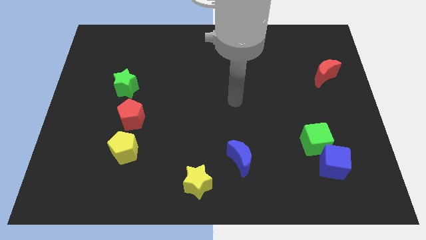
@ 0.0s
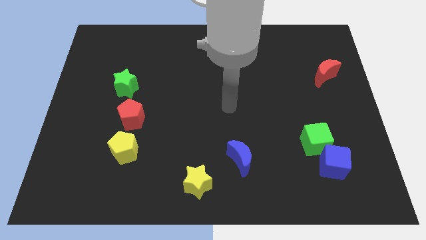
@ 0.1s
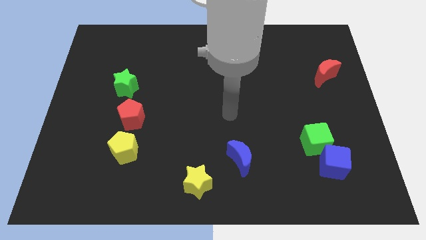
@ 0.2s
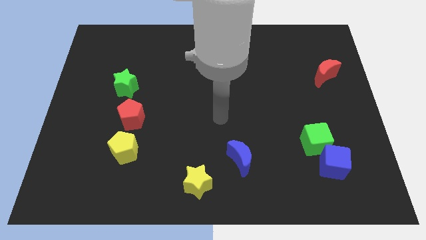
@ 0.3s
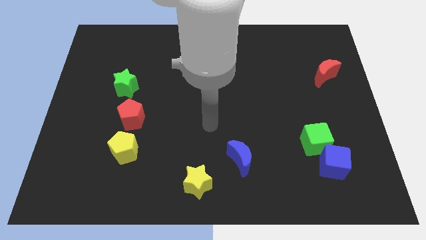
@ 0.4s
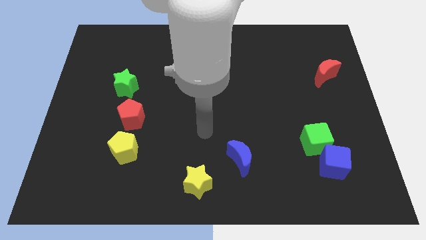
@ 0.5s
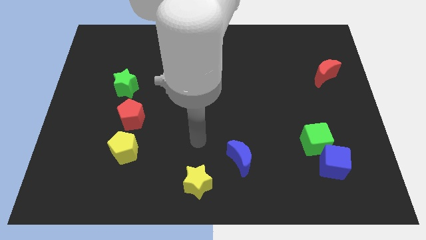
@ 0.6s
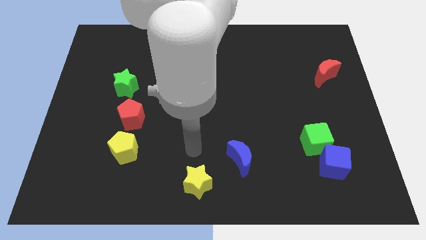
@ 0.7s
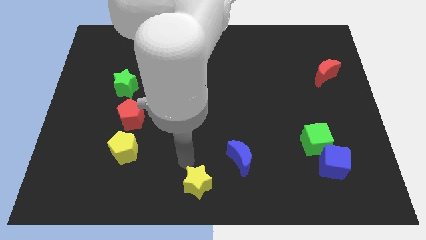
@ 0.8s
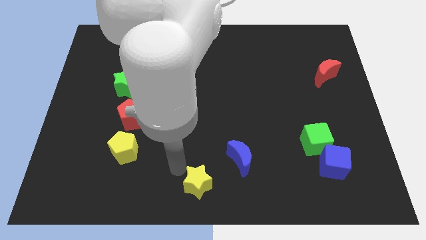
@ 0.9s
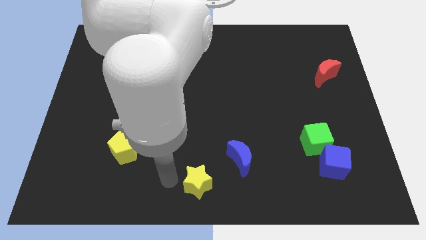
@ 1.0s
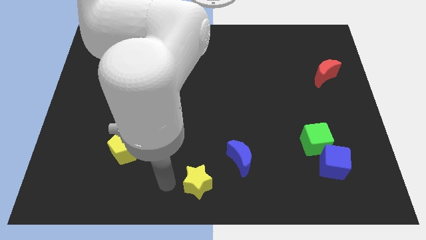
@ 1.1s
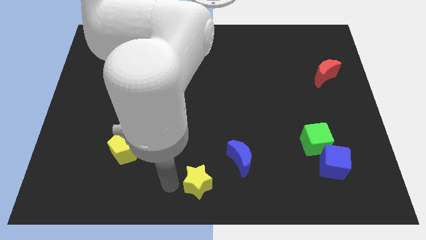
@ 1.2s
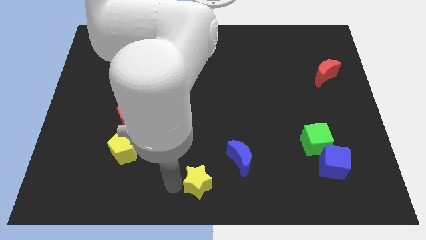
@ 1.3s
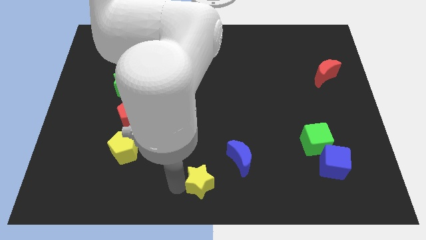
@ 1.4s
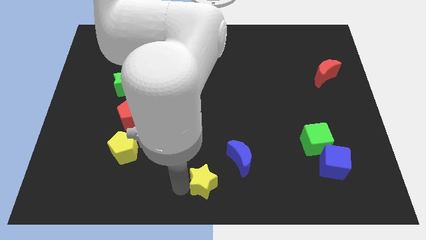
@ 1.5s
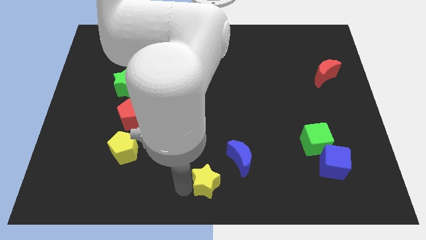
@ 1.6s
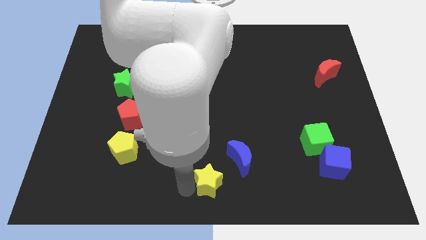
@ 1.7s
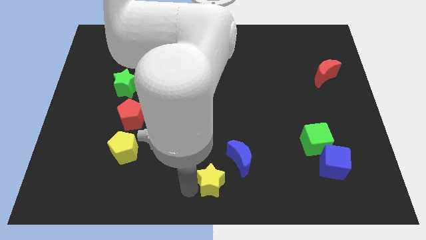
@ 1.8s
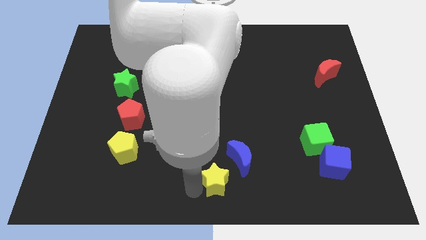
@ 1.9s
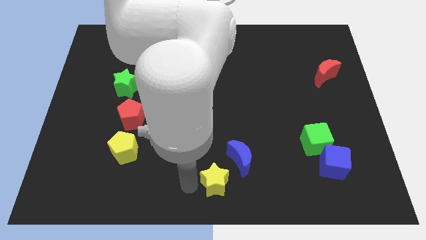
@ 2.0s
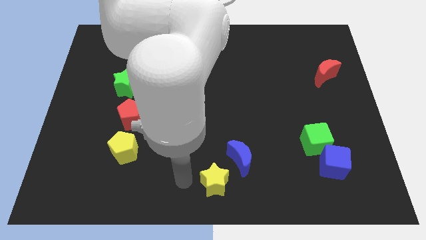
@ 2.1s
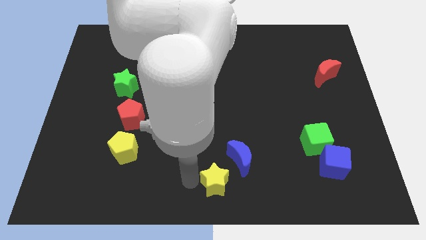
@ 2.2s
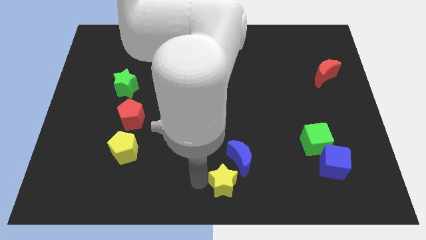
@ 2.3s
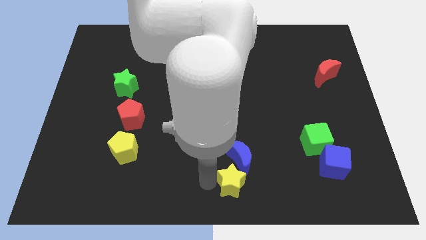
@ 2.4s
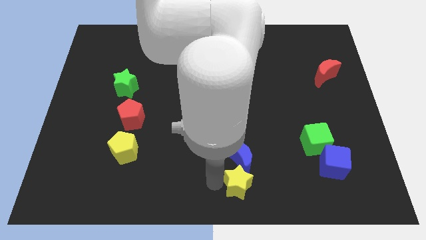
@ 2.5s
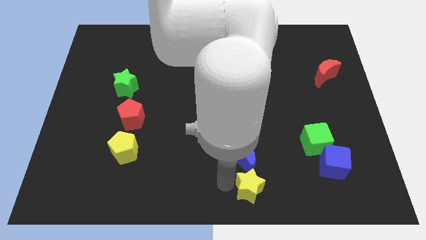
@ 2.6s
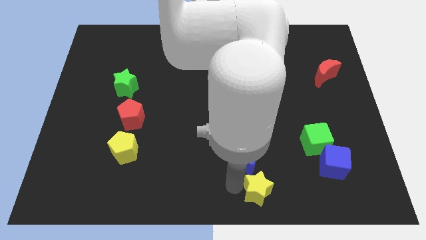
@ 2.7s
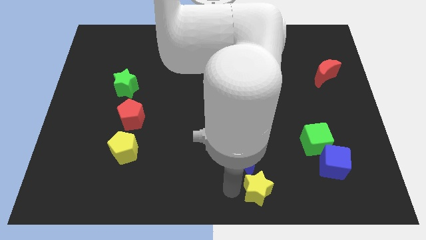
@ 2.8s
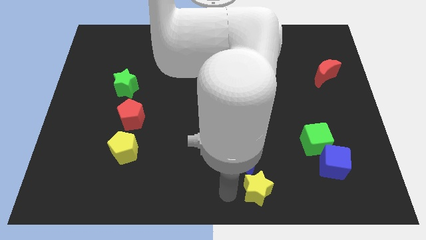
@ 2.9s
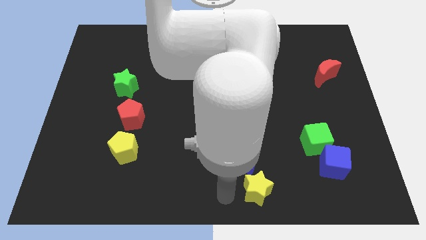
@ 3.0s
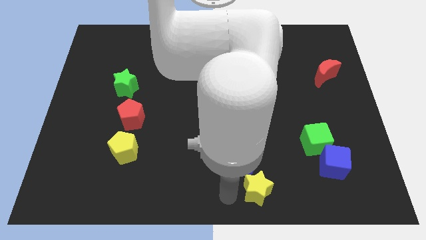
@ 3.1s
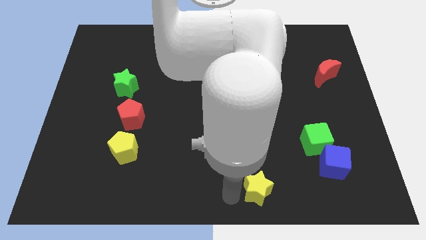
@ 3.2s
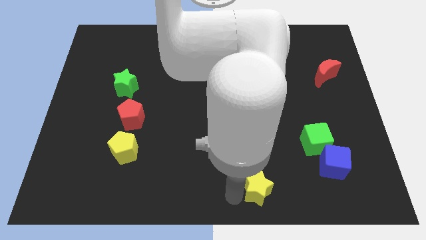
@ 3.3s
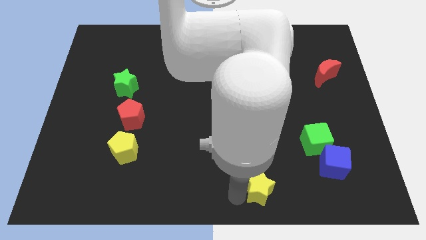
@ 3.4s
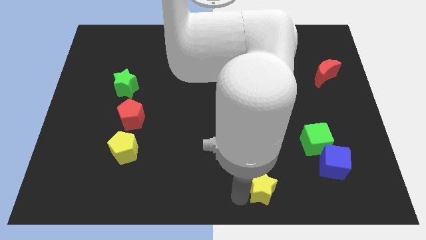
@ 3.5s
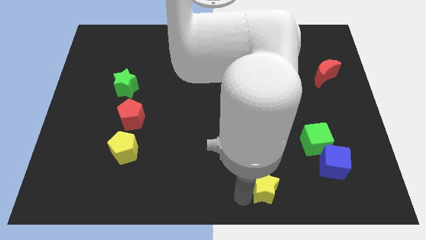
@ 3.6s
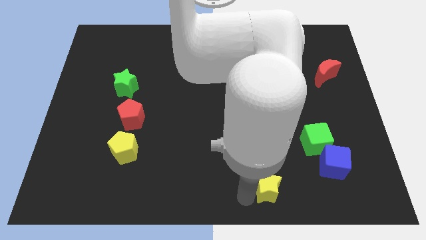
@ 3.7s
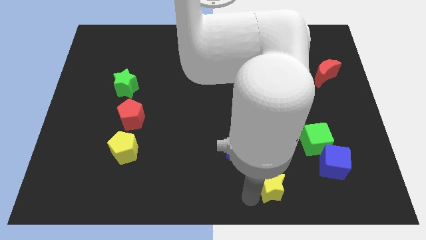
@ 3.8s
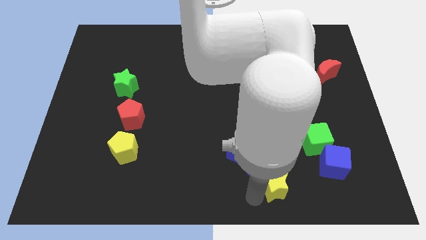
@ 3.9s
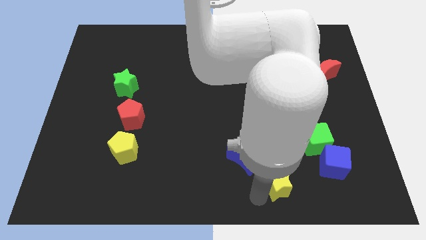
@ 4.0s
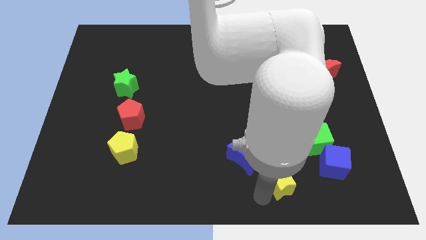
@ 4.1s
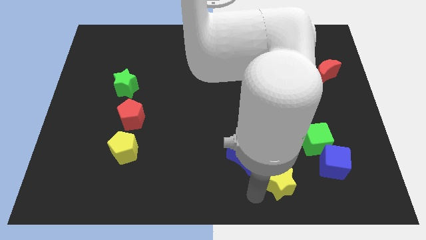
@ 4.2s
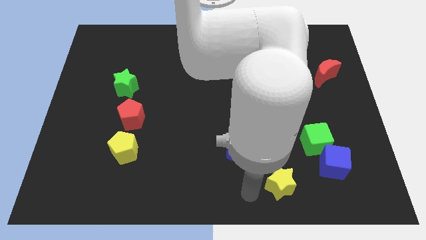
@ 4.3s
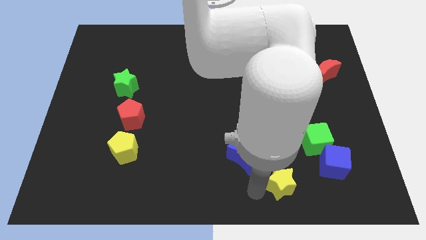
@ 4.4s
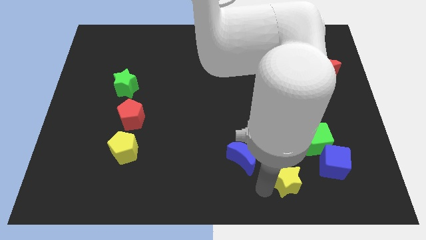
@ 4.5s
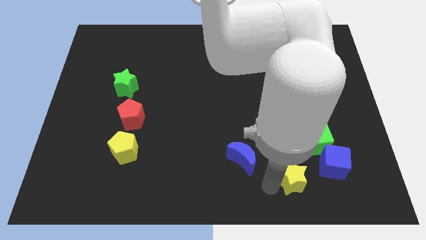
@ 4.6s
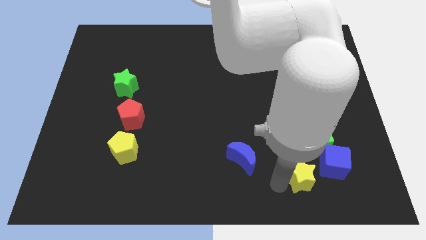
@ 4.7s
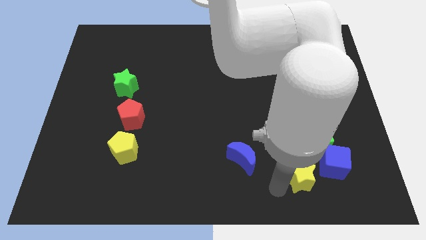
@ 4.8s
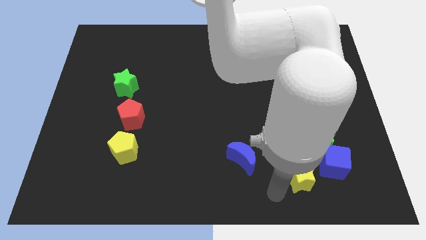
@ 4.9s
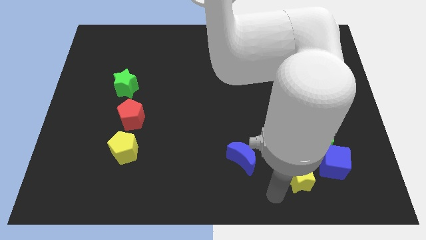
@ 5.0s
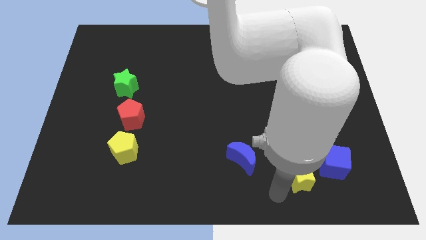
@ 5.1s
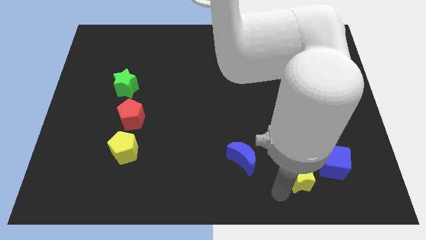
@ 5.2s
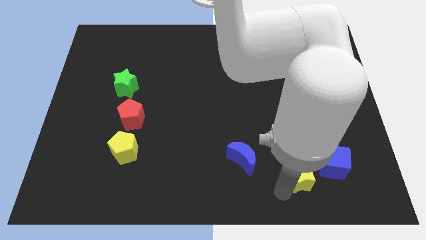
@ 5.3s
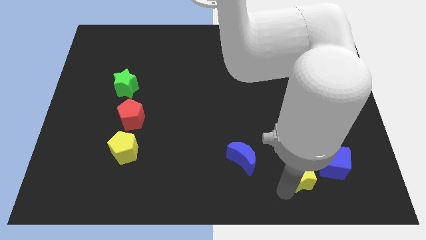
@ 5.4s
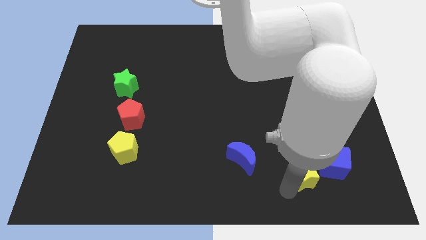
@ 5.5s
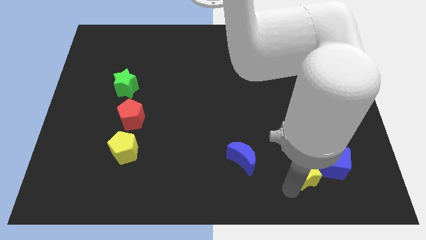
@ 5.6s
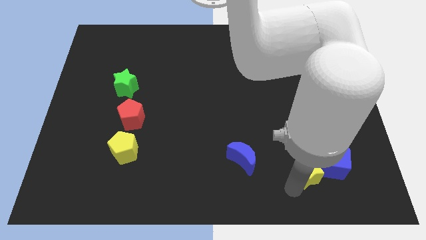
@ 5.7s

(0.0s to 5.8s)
slide the yellow star towards the blue cube

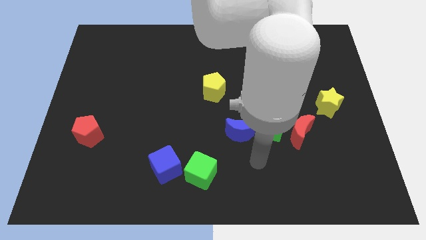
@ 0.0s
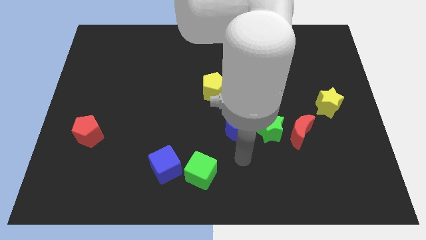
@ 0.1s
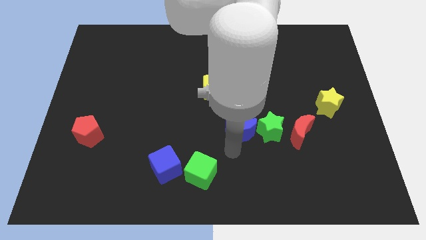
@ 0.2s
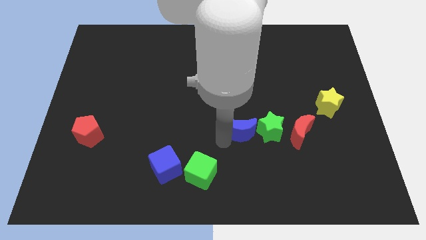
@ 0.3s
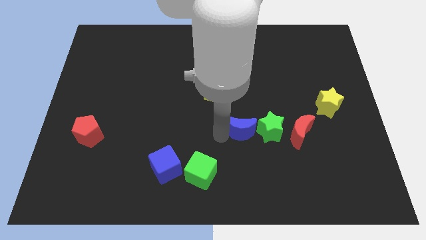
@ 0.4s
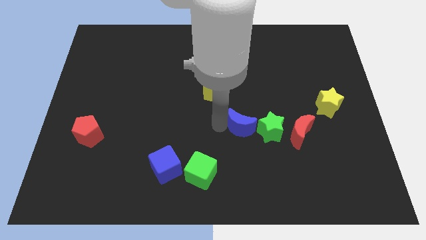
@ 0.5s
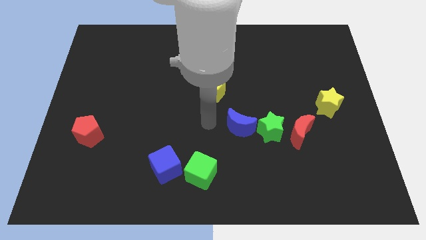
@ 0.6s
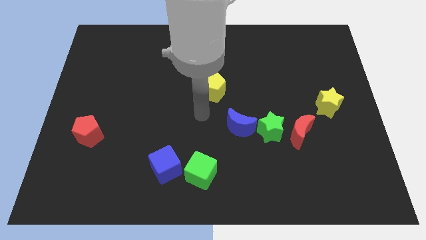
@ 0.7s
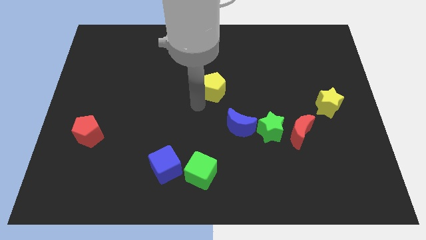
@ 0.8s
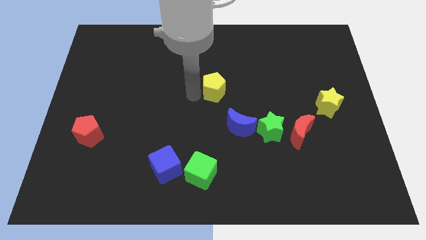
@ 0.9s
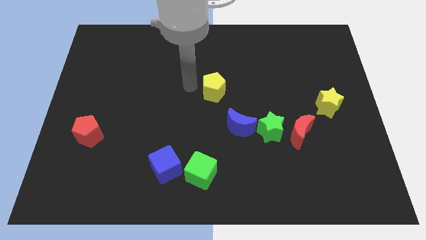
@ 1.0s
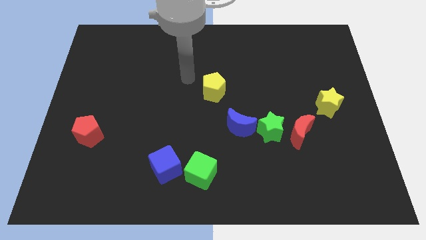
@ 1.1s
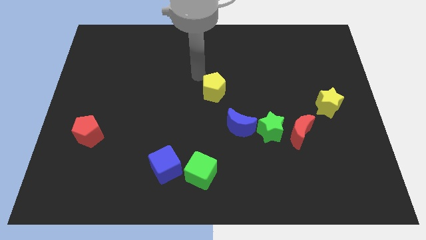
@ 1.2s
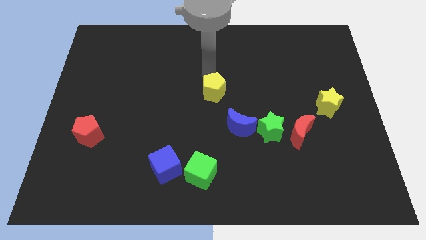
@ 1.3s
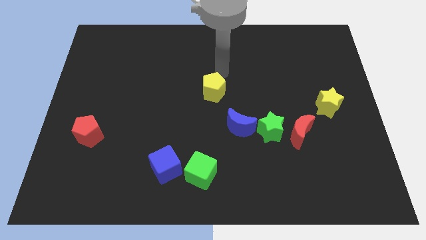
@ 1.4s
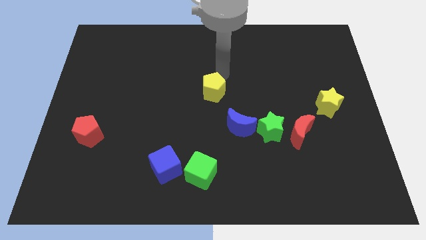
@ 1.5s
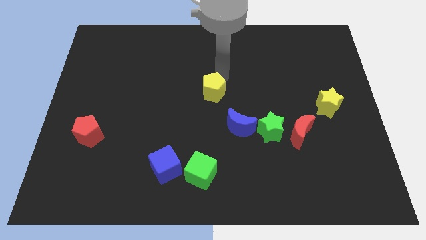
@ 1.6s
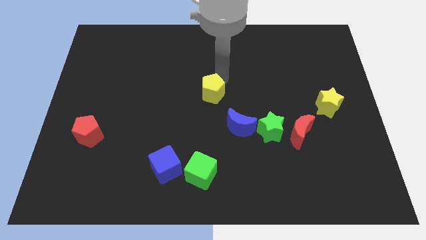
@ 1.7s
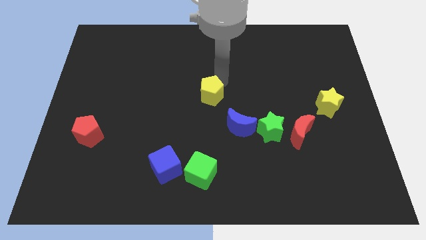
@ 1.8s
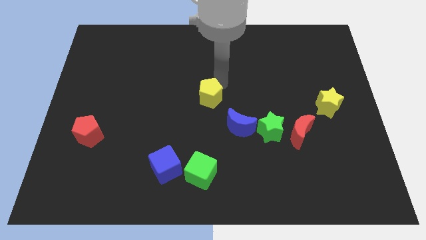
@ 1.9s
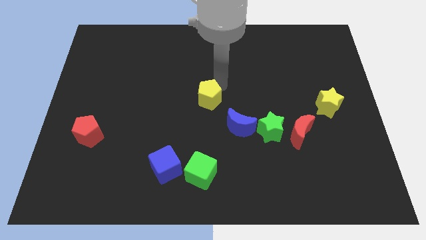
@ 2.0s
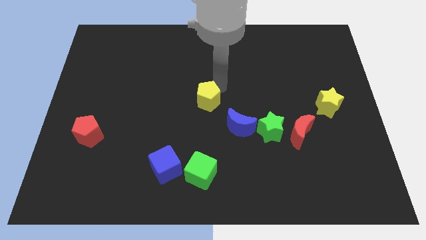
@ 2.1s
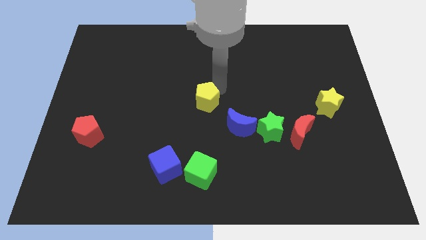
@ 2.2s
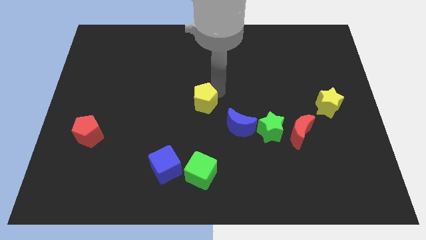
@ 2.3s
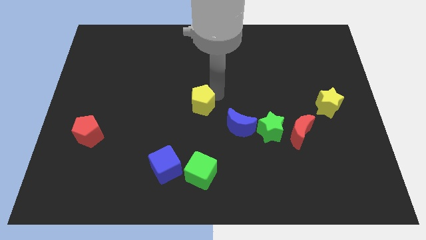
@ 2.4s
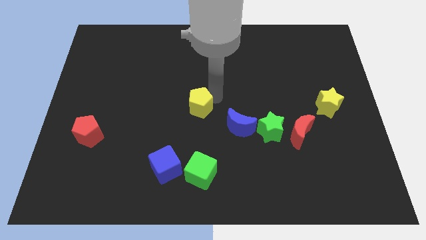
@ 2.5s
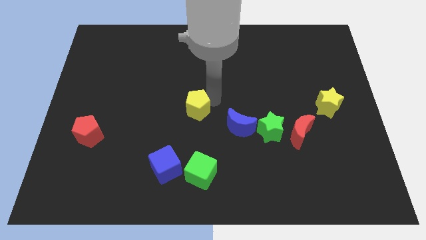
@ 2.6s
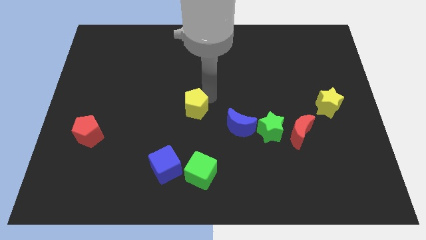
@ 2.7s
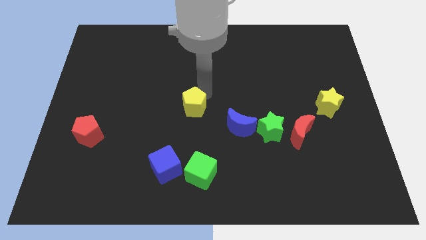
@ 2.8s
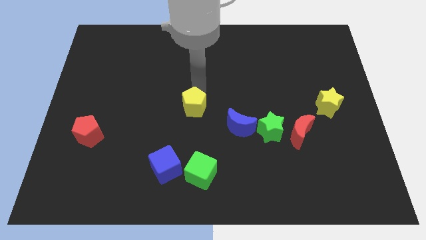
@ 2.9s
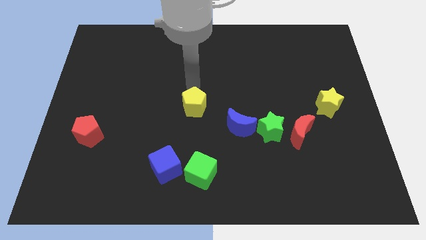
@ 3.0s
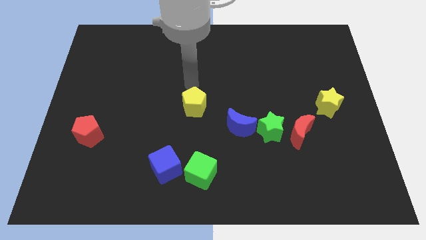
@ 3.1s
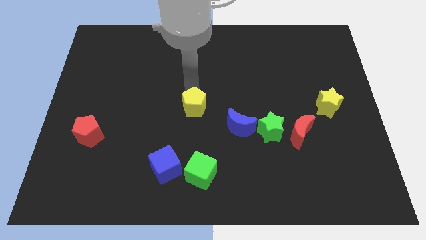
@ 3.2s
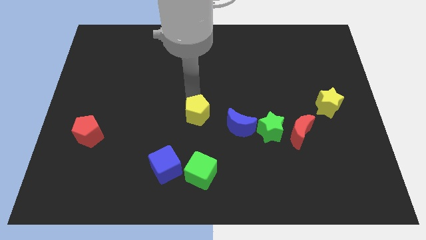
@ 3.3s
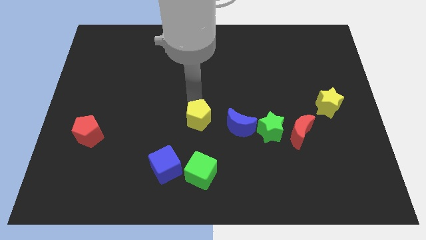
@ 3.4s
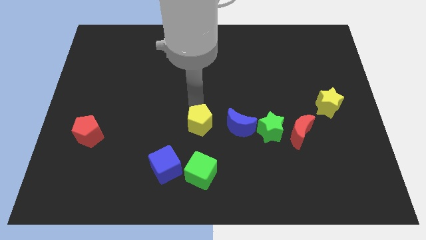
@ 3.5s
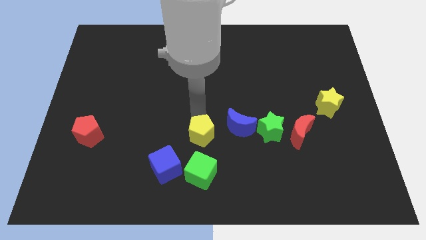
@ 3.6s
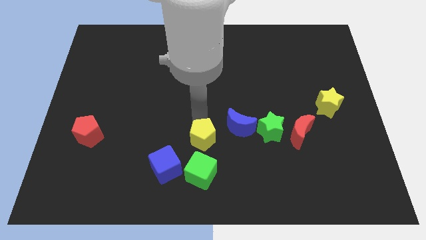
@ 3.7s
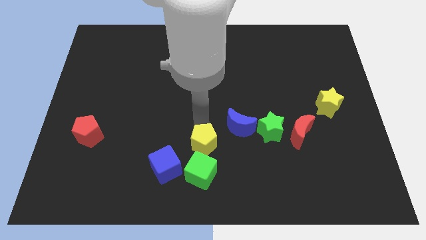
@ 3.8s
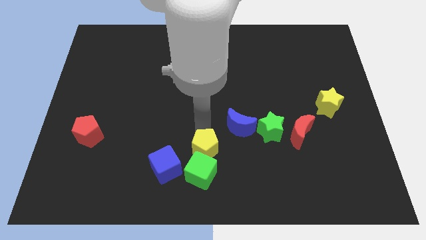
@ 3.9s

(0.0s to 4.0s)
slide the yellow pentagon next to the green cube
